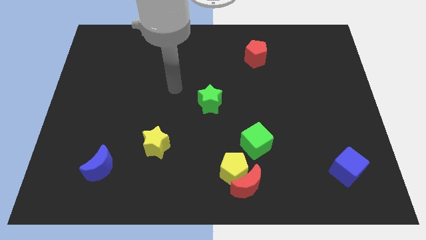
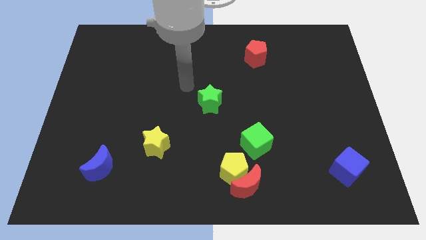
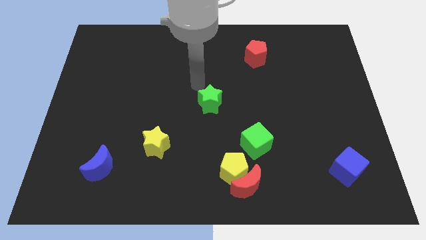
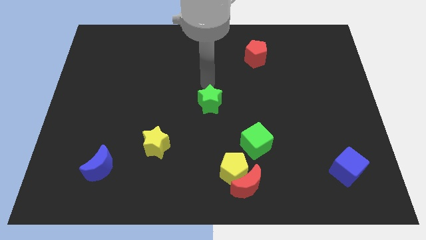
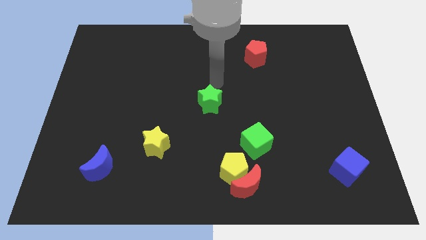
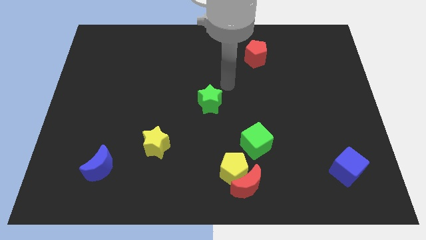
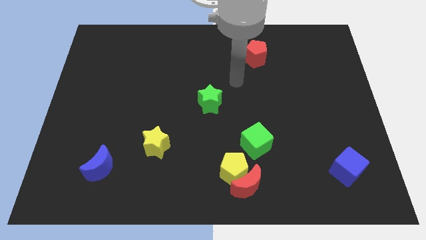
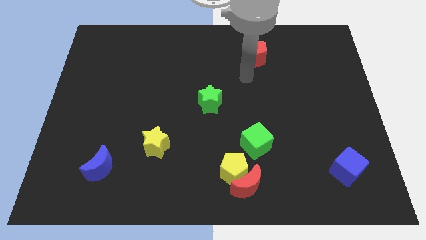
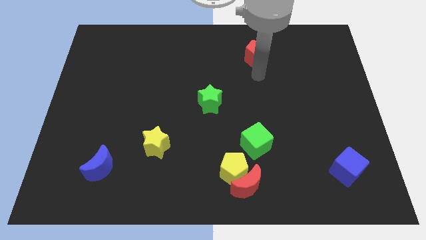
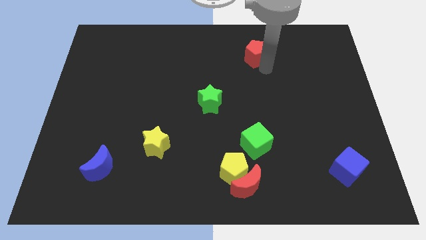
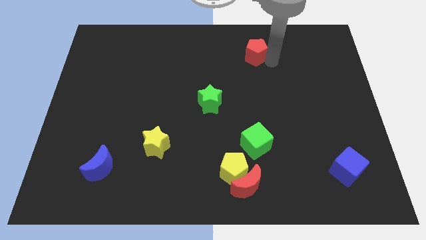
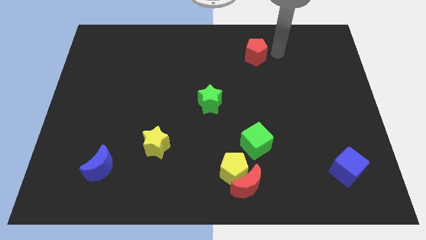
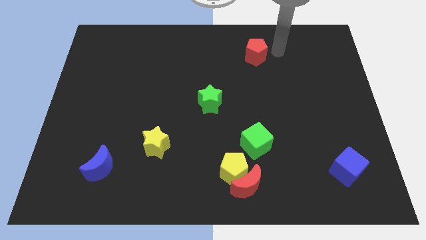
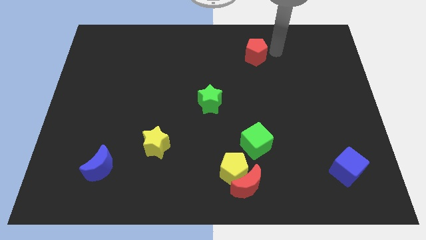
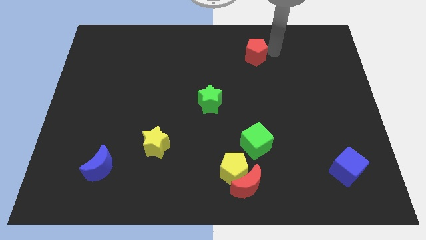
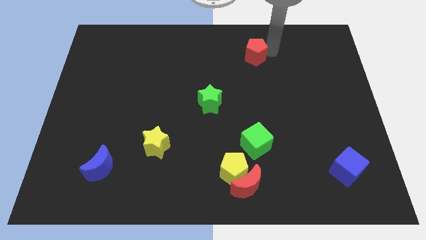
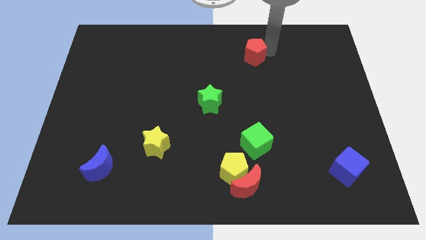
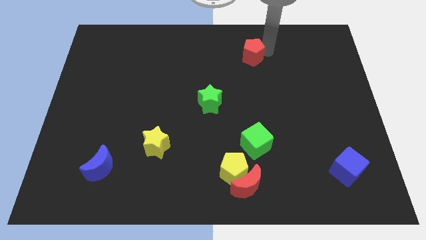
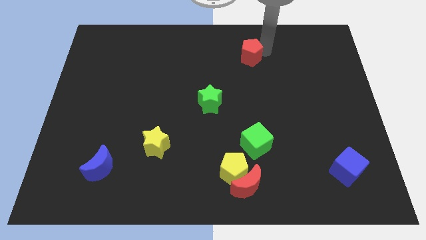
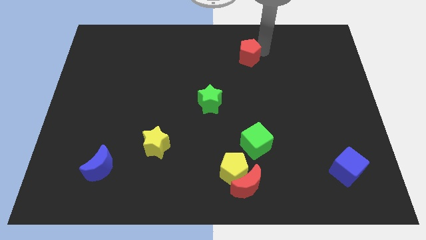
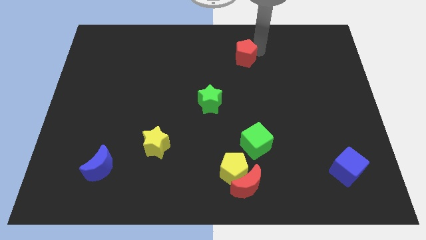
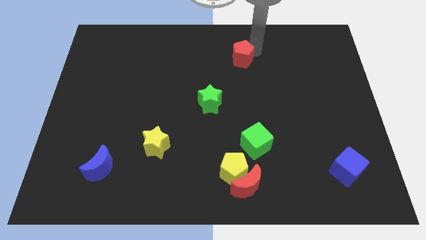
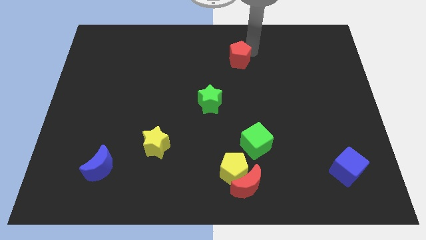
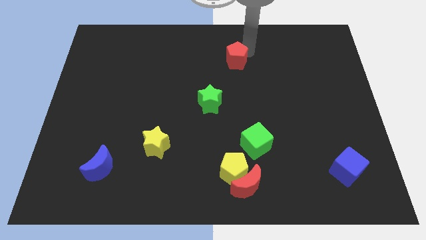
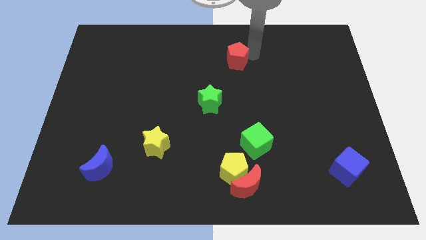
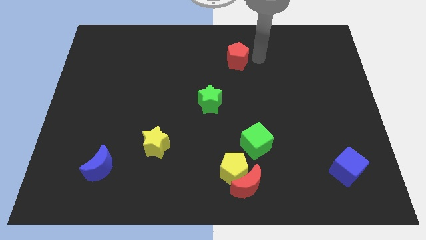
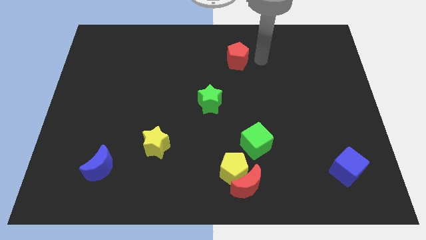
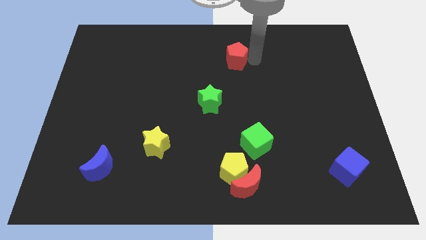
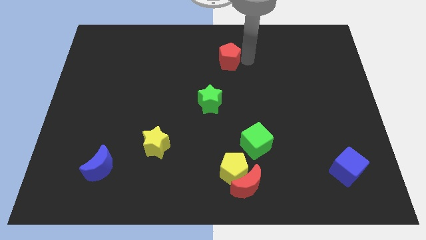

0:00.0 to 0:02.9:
slightly move the red pentagon to the left

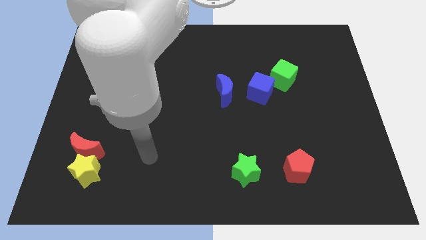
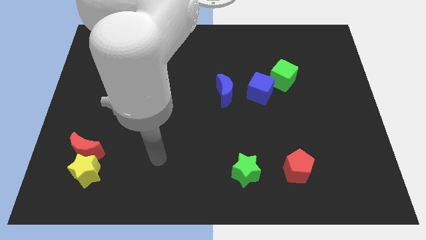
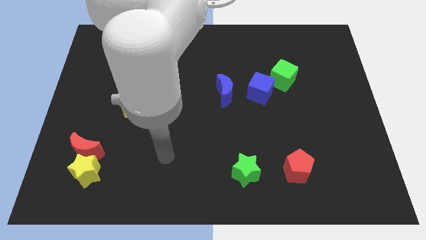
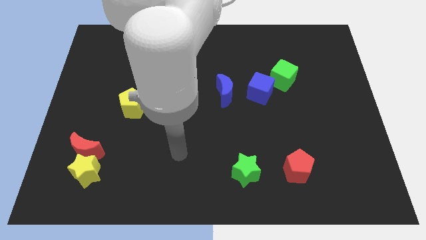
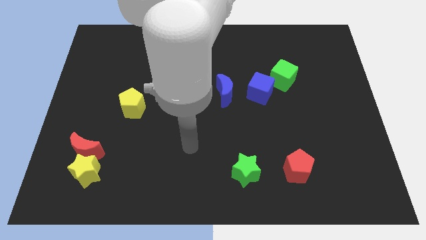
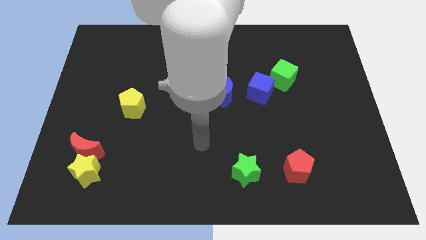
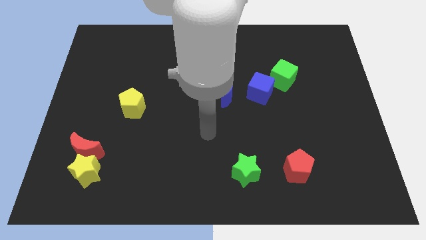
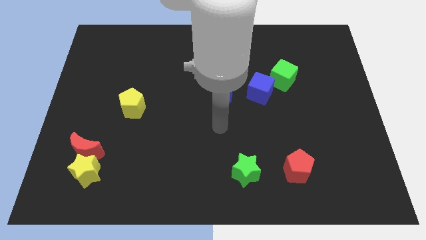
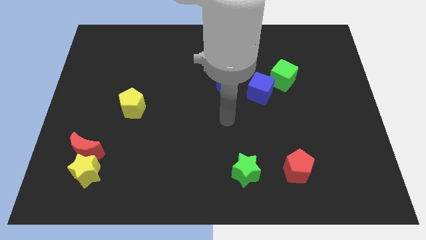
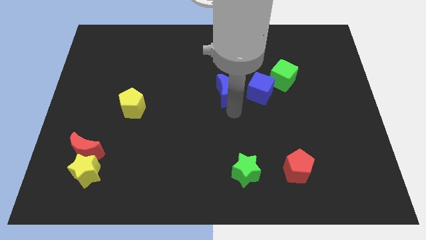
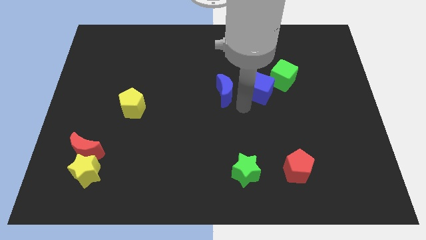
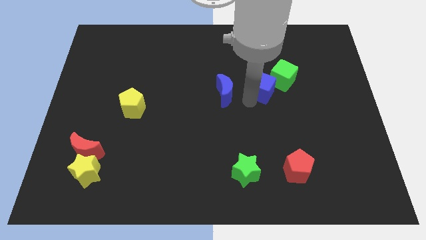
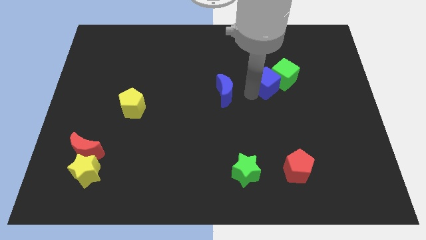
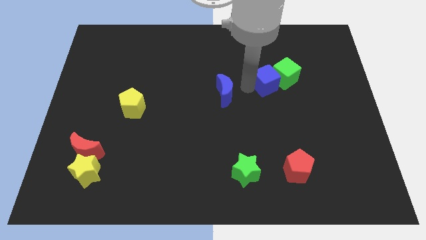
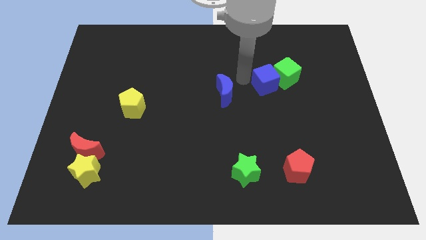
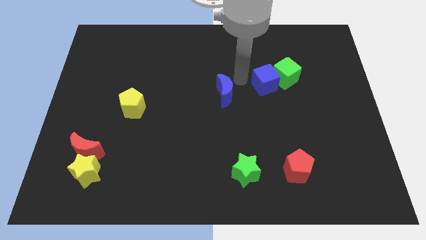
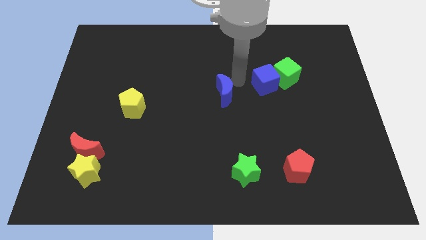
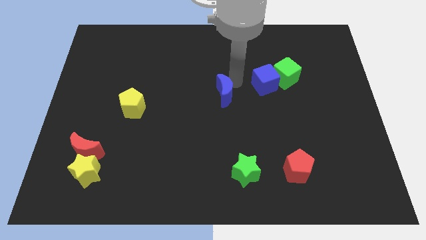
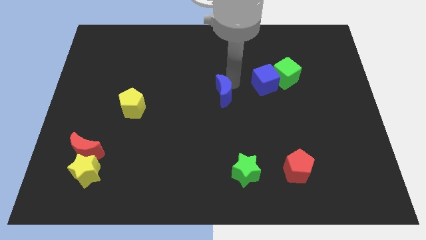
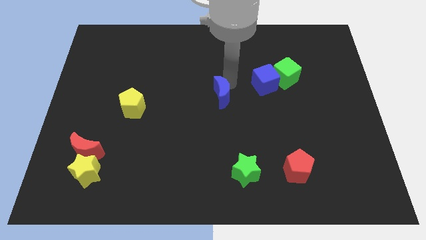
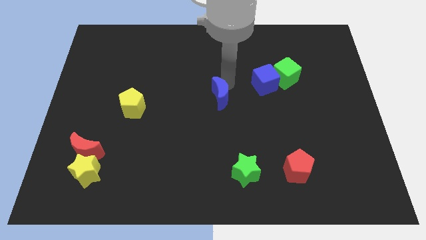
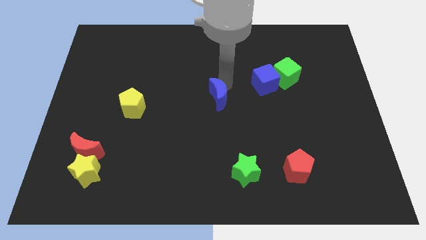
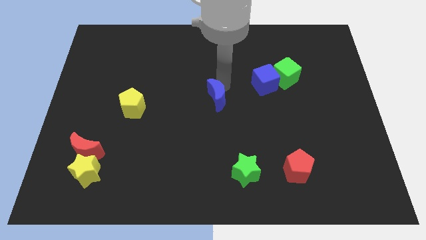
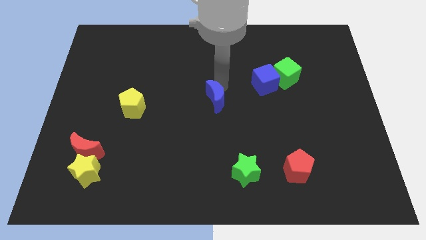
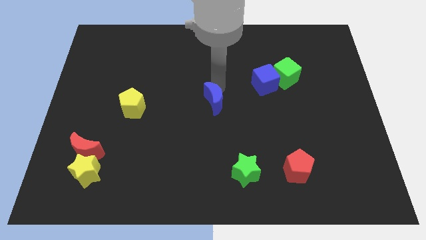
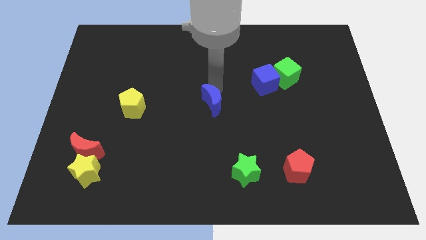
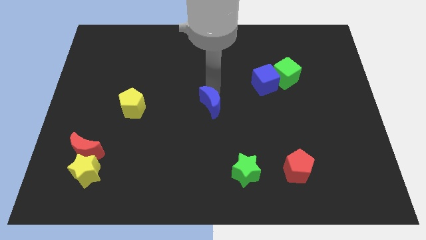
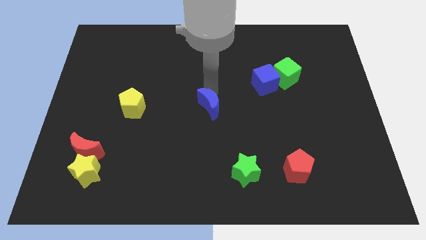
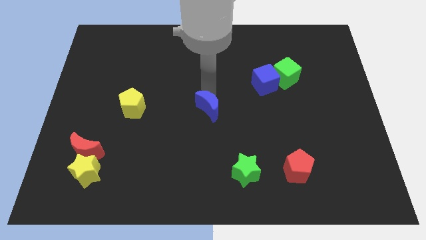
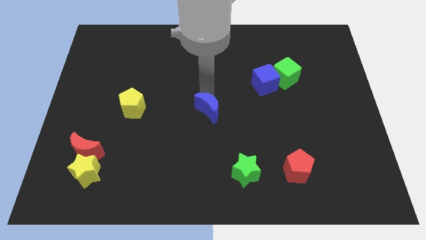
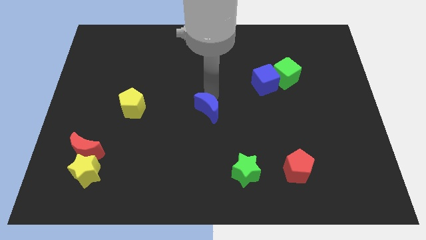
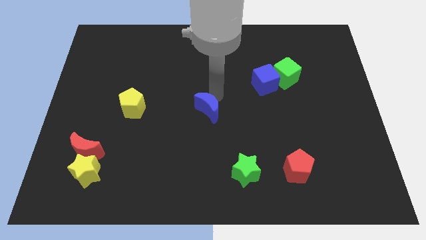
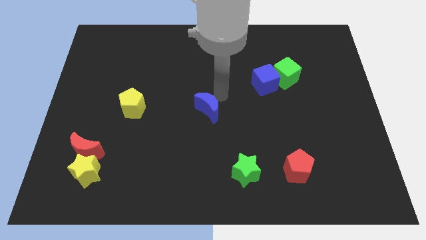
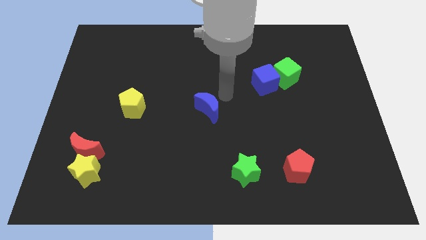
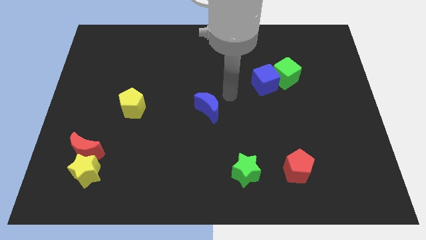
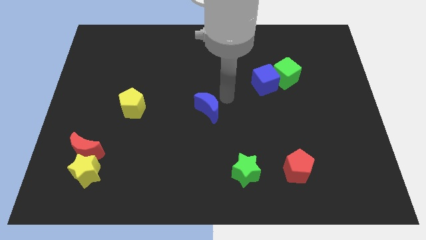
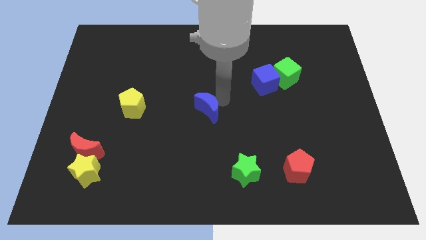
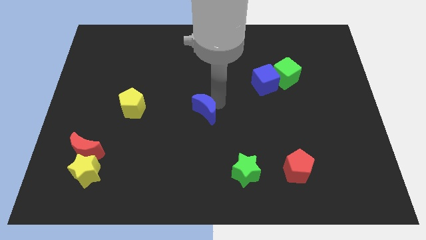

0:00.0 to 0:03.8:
slightly move the blue moon down and then to the left

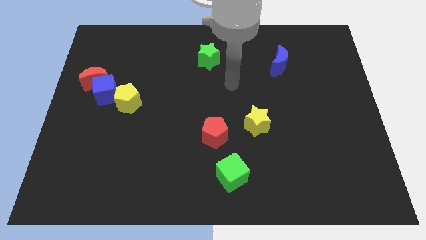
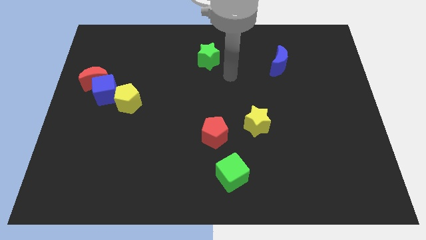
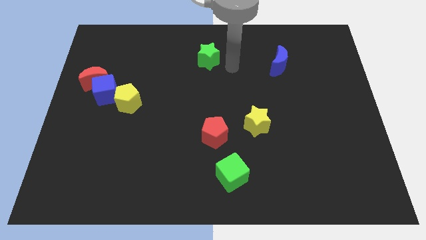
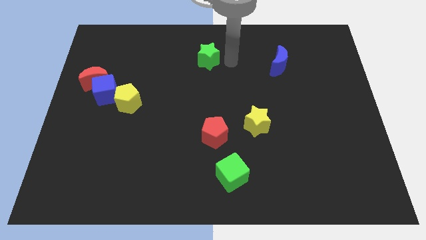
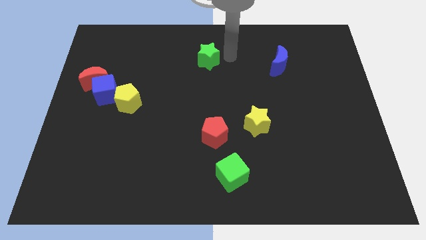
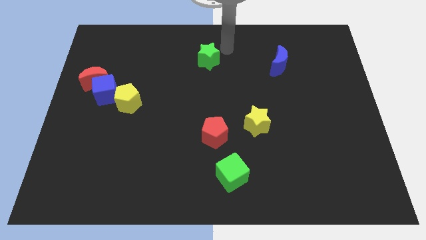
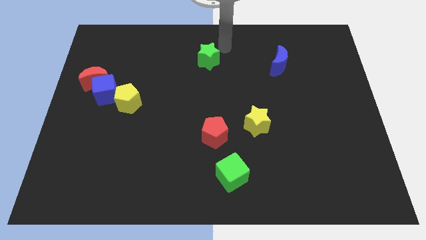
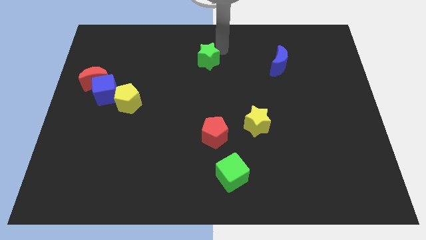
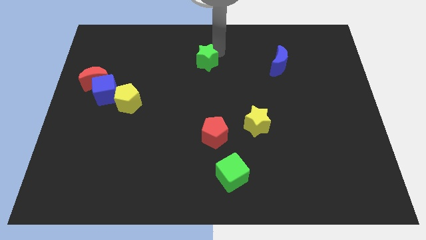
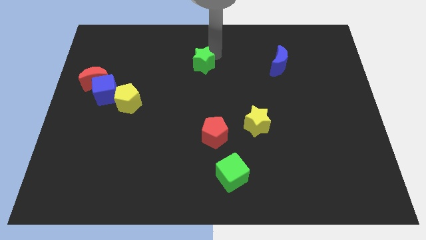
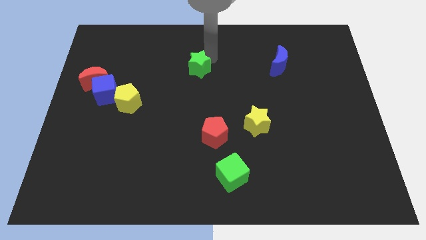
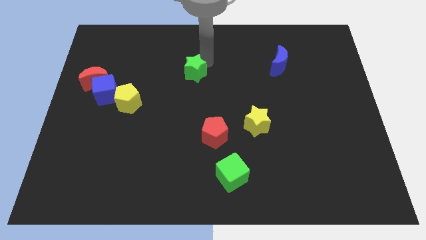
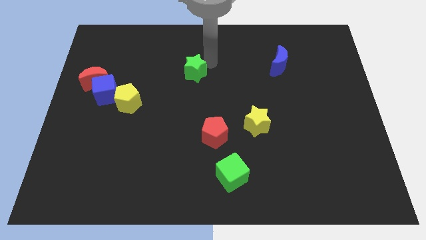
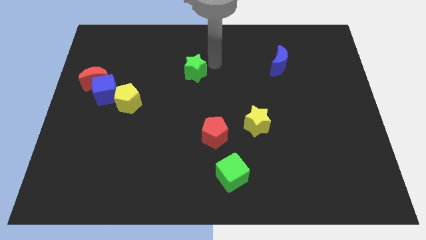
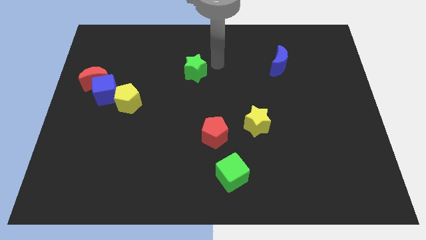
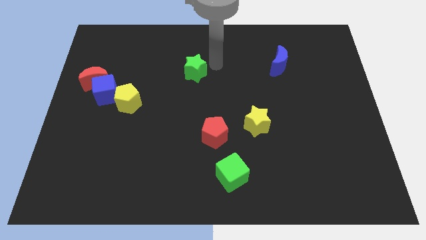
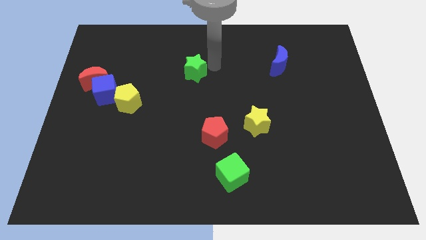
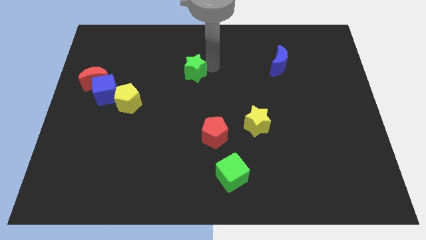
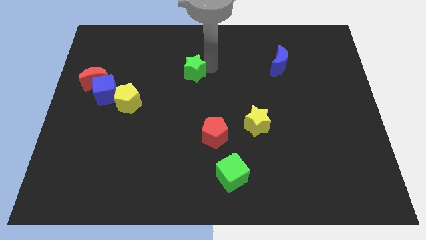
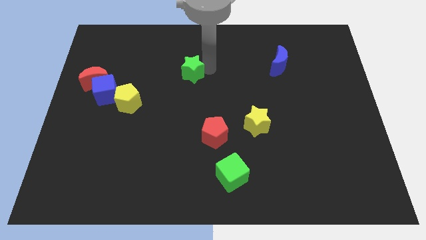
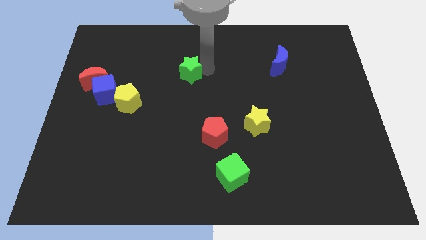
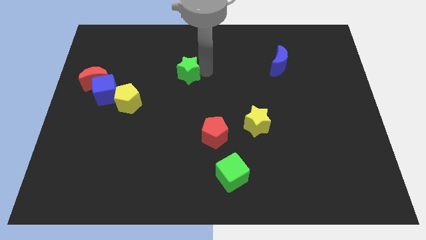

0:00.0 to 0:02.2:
slightly slide the green star down and left diagonally
